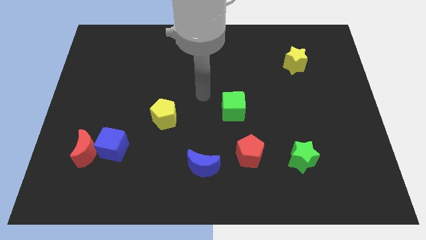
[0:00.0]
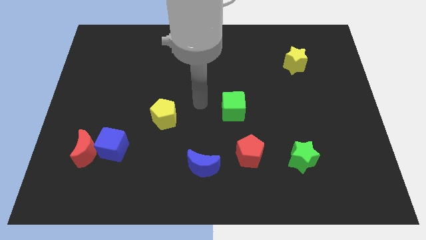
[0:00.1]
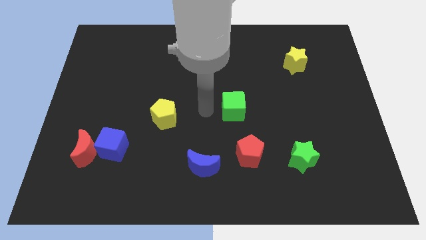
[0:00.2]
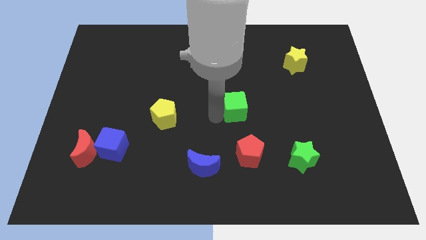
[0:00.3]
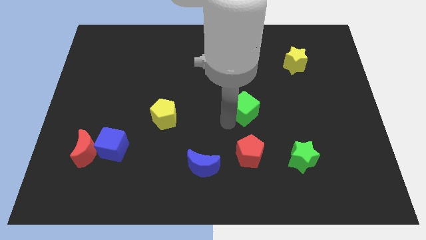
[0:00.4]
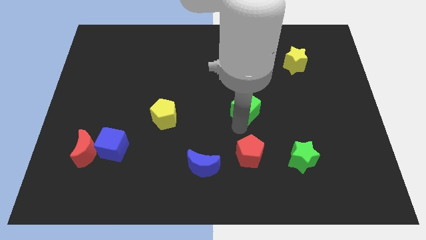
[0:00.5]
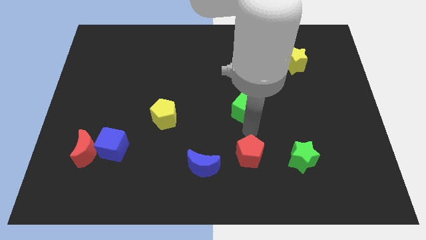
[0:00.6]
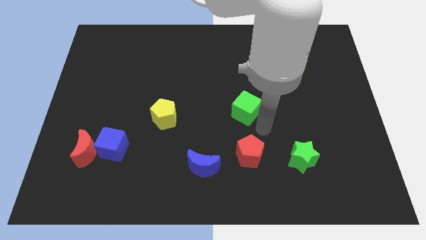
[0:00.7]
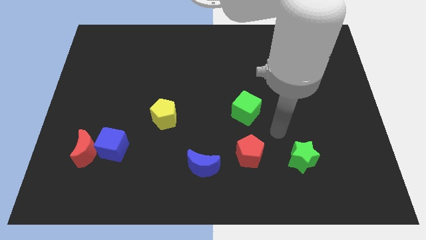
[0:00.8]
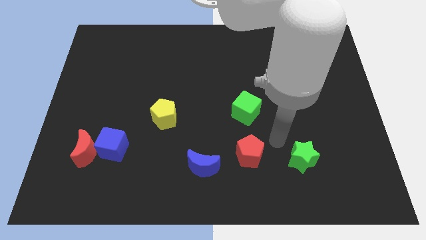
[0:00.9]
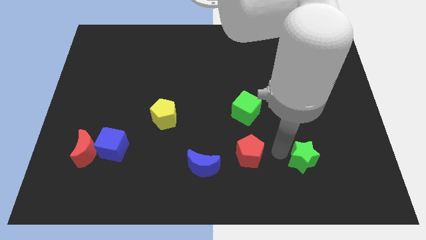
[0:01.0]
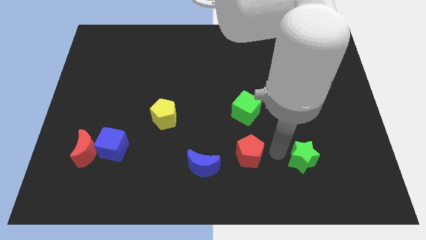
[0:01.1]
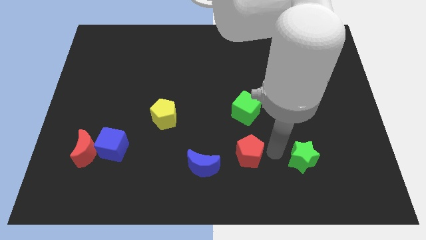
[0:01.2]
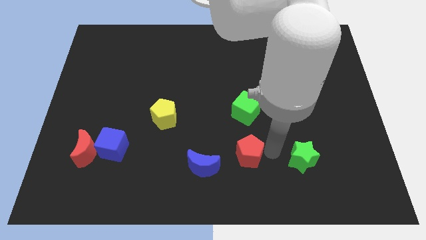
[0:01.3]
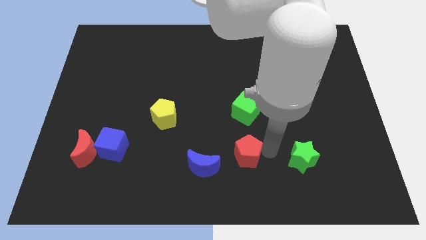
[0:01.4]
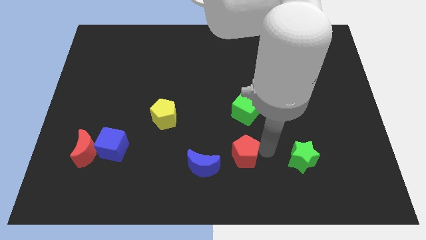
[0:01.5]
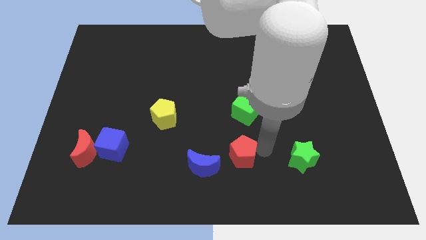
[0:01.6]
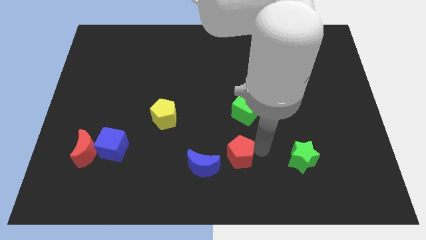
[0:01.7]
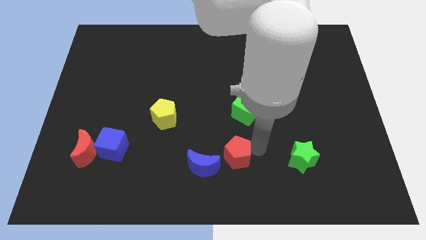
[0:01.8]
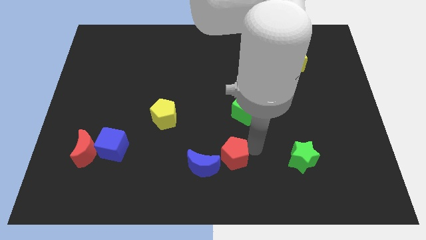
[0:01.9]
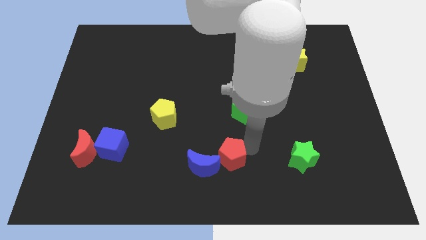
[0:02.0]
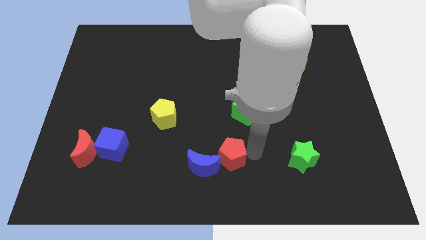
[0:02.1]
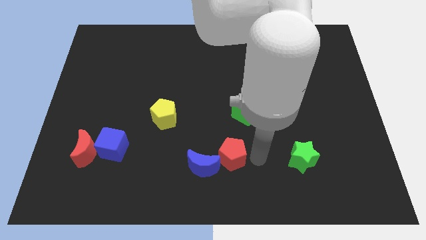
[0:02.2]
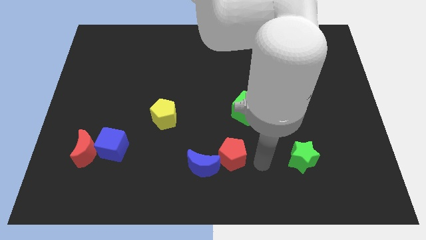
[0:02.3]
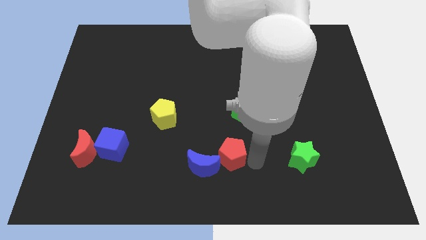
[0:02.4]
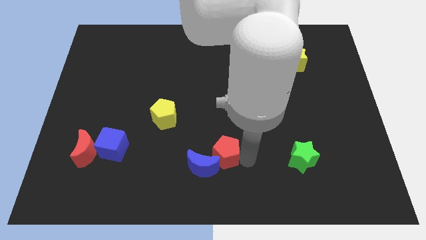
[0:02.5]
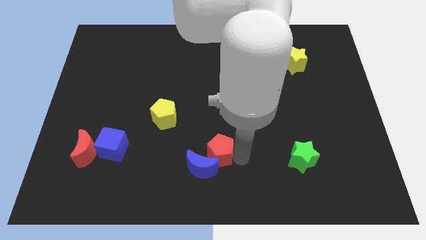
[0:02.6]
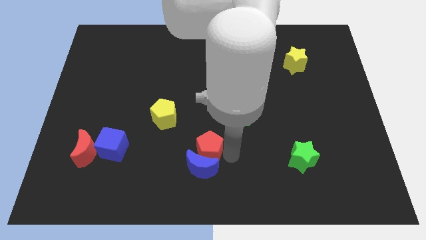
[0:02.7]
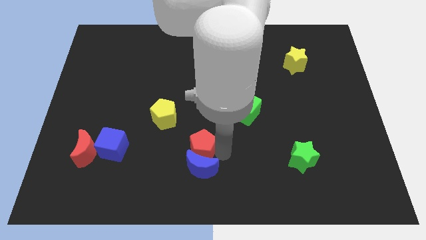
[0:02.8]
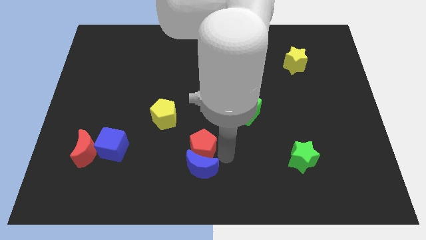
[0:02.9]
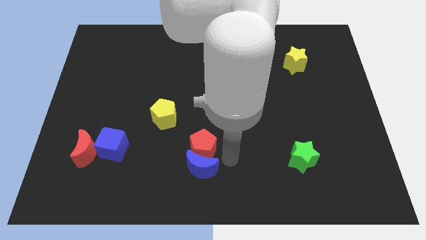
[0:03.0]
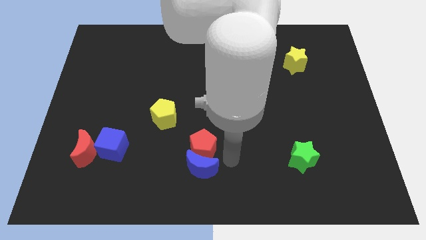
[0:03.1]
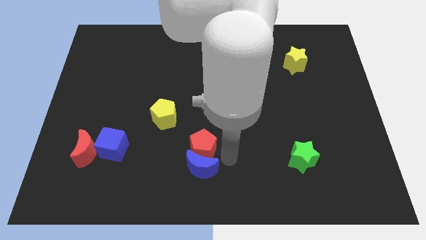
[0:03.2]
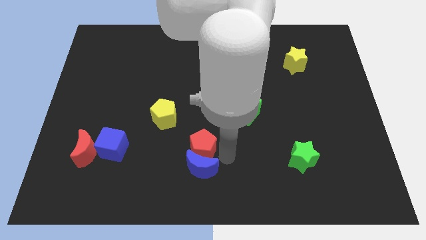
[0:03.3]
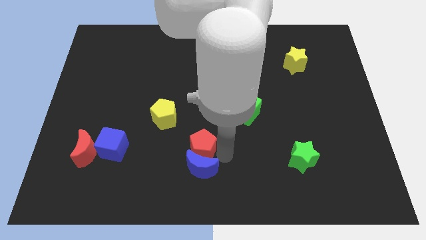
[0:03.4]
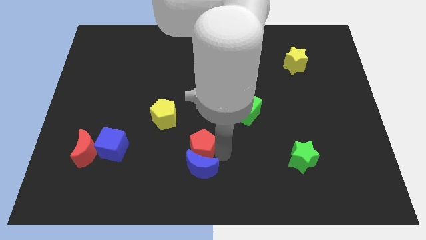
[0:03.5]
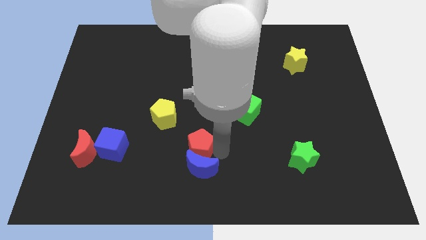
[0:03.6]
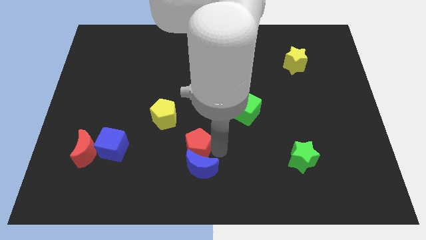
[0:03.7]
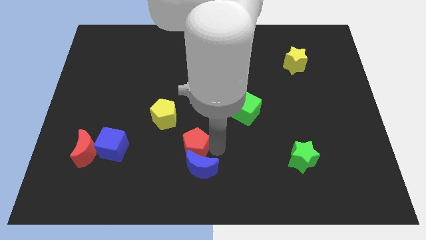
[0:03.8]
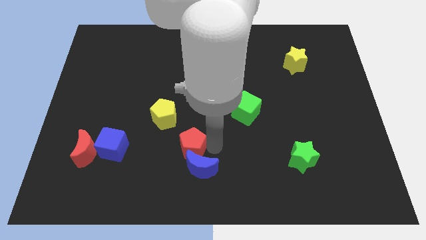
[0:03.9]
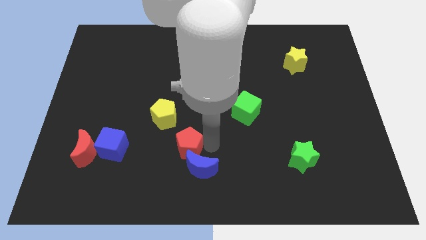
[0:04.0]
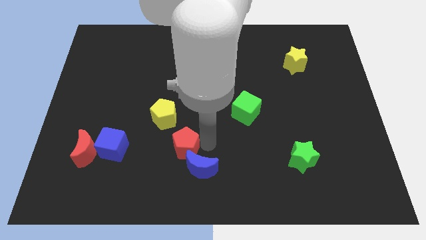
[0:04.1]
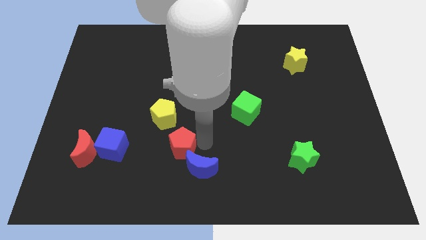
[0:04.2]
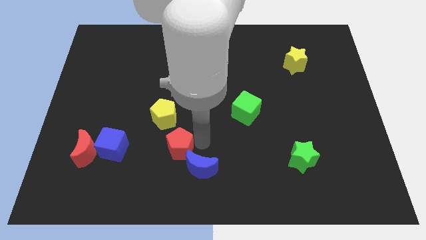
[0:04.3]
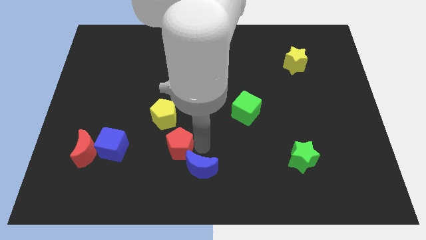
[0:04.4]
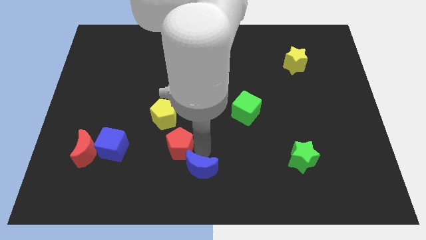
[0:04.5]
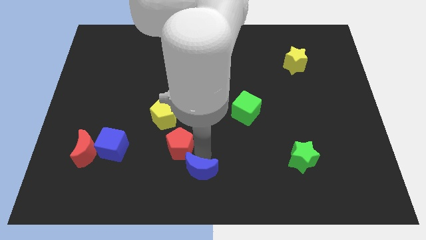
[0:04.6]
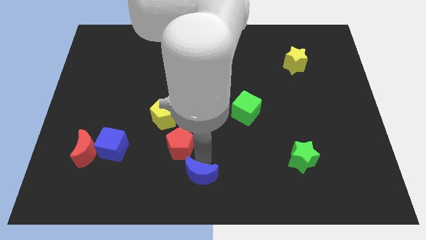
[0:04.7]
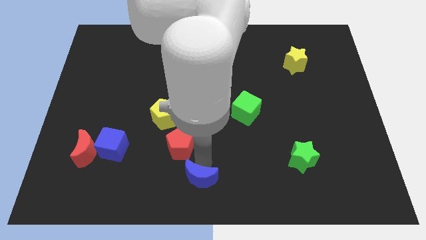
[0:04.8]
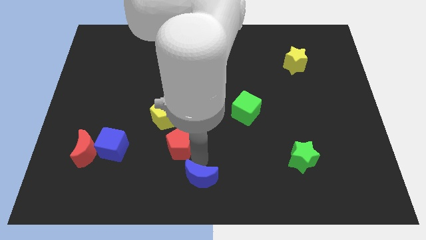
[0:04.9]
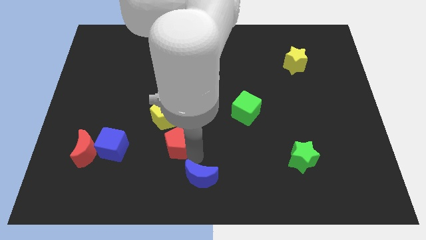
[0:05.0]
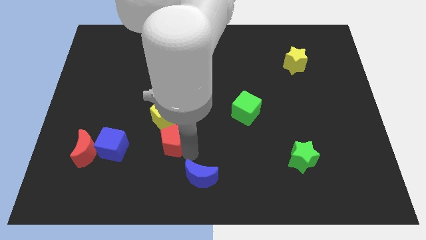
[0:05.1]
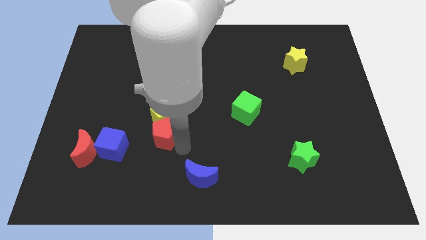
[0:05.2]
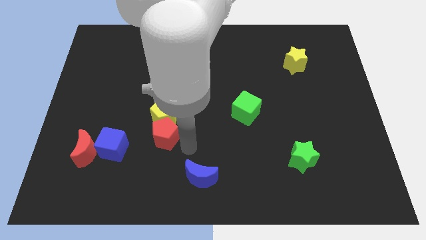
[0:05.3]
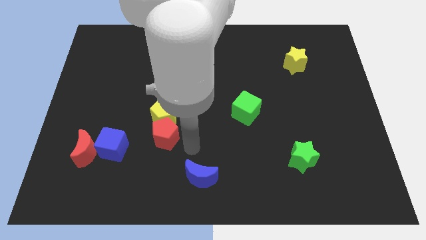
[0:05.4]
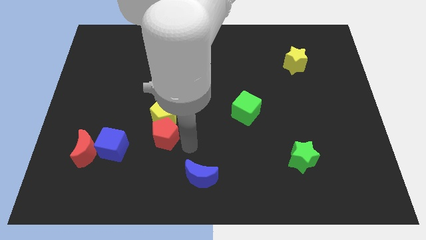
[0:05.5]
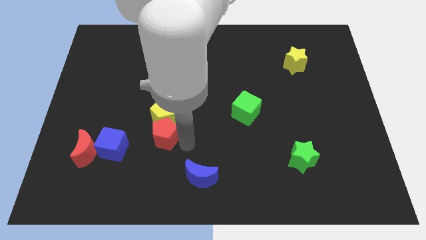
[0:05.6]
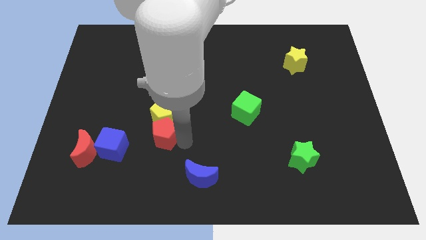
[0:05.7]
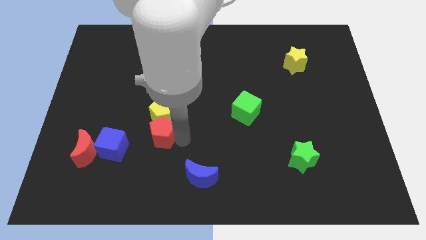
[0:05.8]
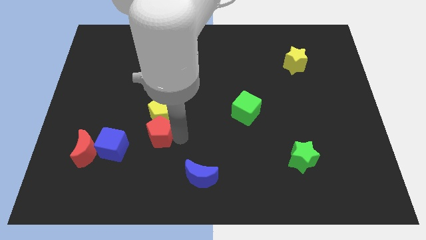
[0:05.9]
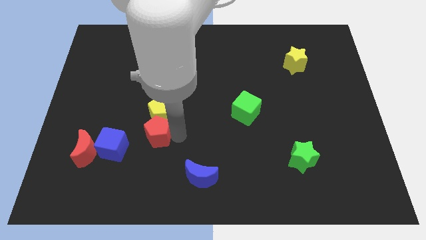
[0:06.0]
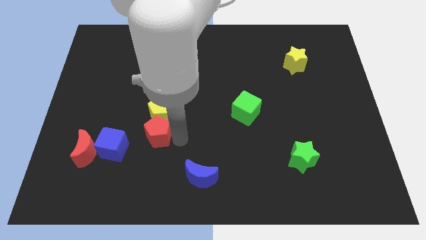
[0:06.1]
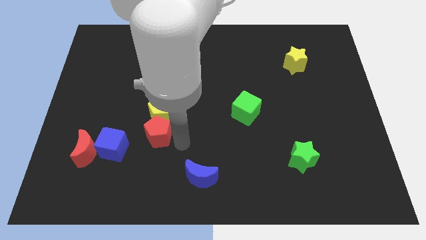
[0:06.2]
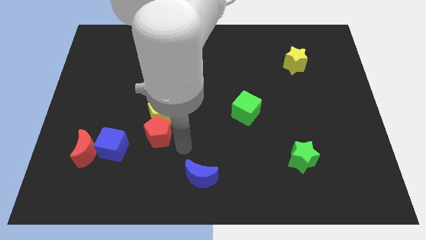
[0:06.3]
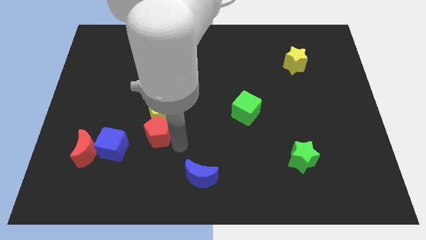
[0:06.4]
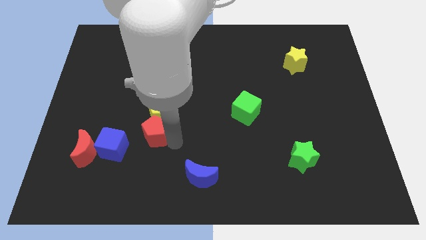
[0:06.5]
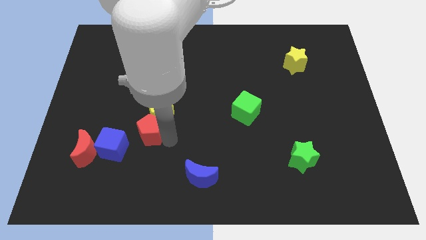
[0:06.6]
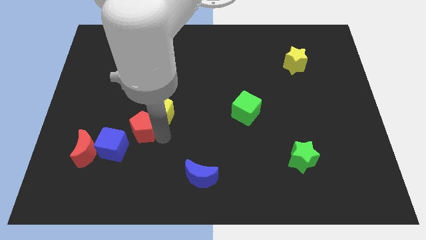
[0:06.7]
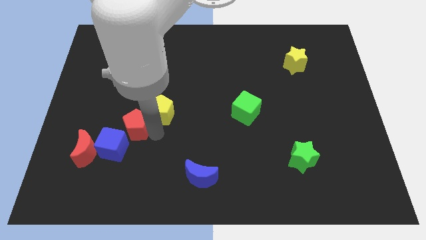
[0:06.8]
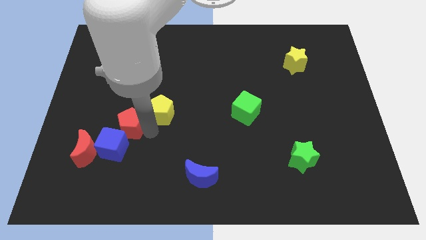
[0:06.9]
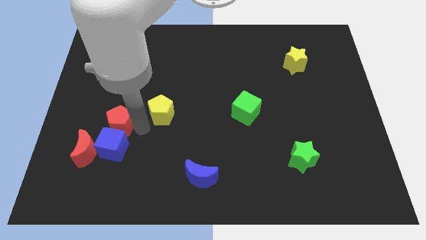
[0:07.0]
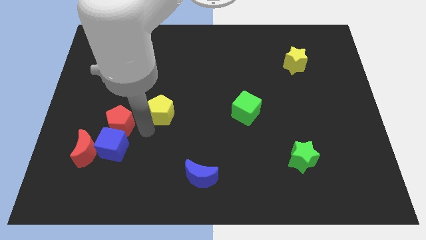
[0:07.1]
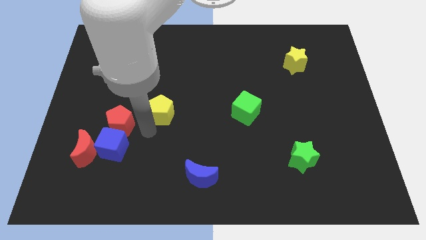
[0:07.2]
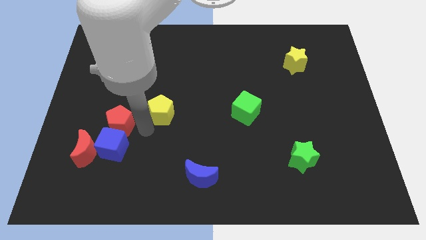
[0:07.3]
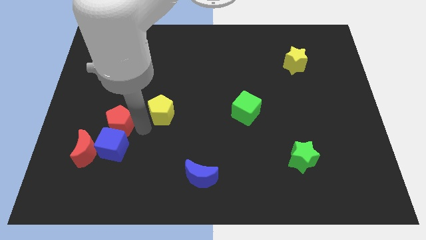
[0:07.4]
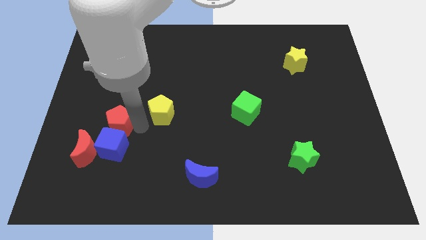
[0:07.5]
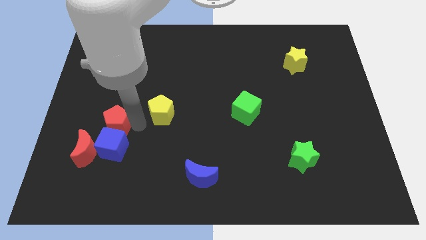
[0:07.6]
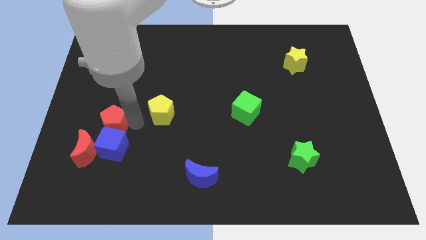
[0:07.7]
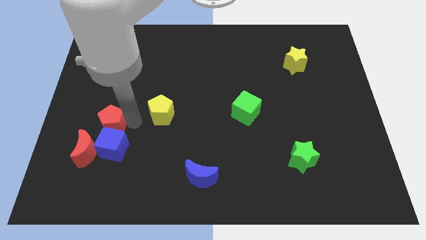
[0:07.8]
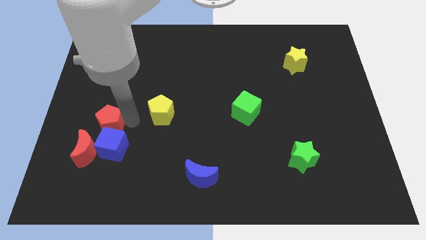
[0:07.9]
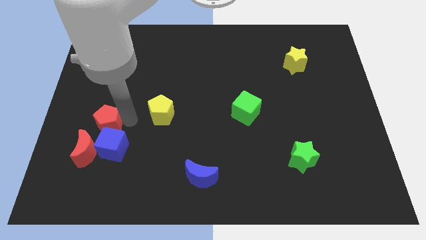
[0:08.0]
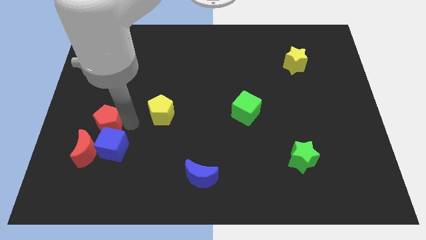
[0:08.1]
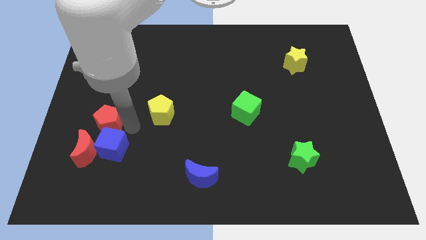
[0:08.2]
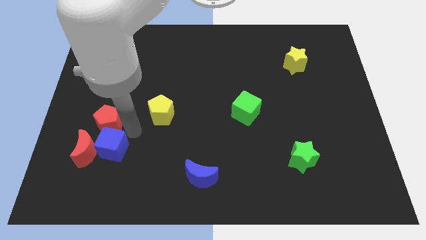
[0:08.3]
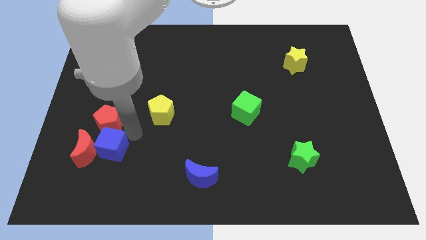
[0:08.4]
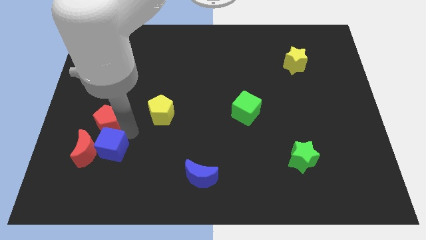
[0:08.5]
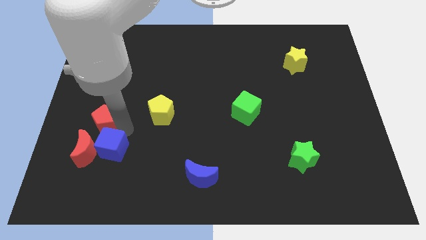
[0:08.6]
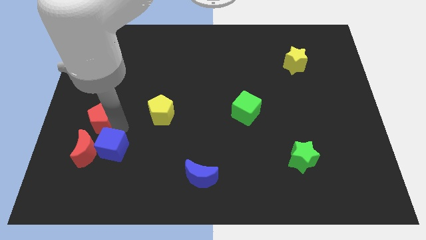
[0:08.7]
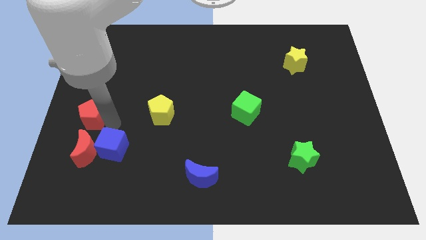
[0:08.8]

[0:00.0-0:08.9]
move the red pentagon to the left side
